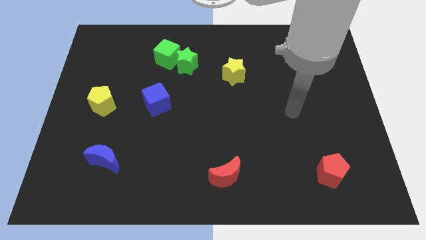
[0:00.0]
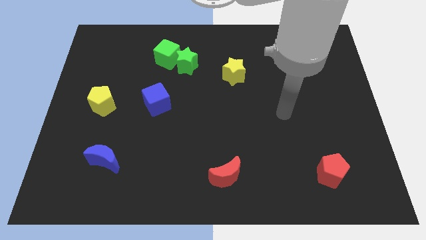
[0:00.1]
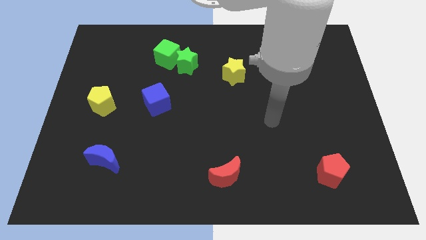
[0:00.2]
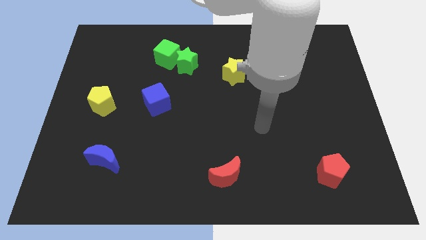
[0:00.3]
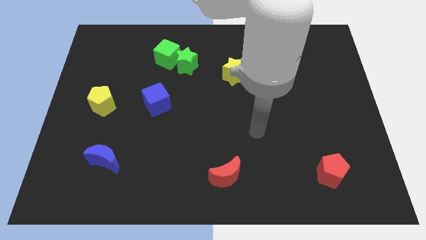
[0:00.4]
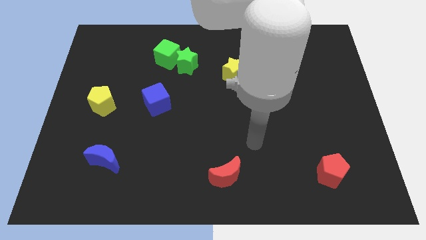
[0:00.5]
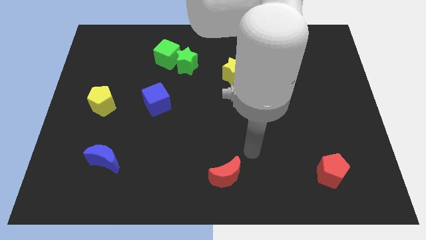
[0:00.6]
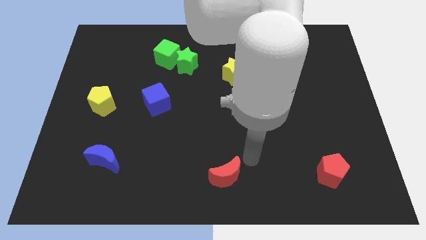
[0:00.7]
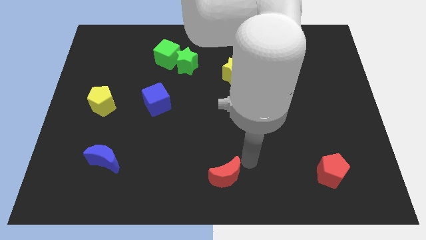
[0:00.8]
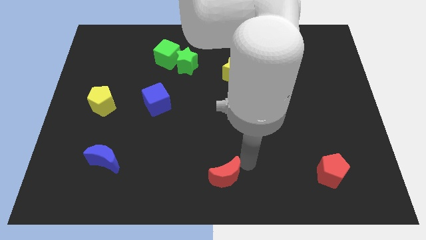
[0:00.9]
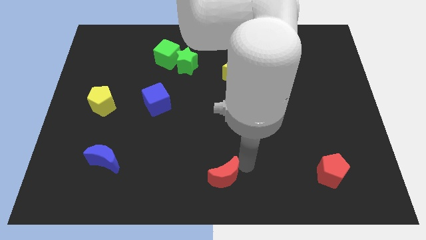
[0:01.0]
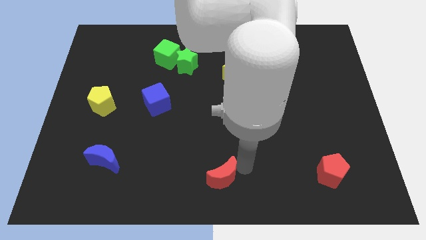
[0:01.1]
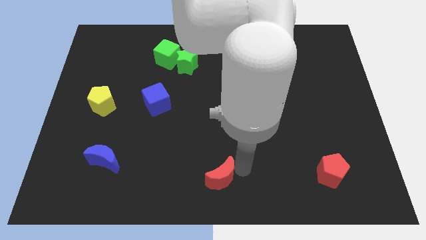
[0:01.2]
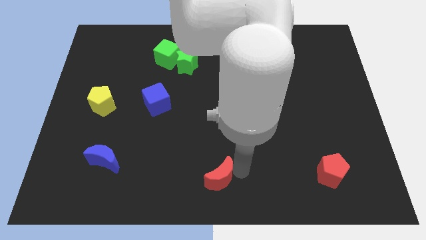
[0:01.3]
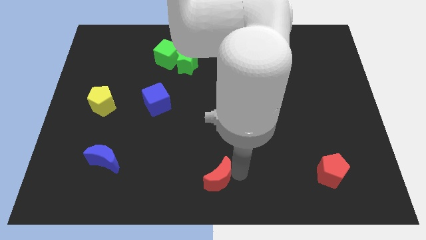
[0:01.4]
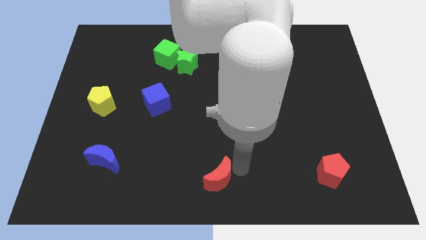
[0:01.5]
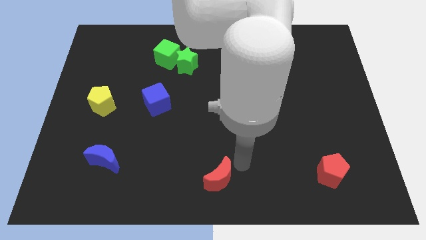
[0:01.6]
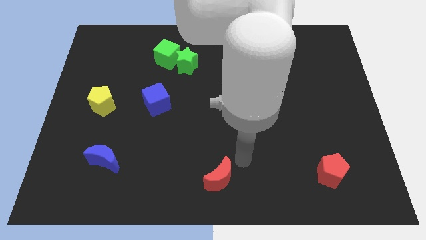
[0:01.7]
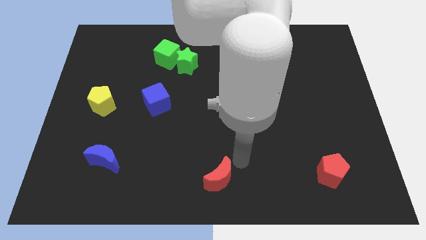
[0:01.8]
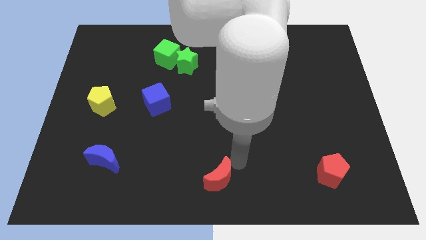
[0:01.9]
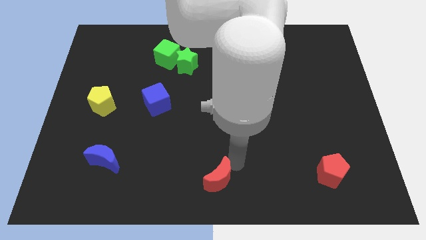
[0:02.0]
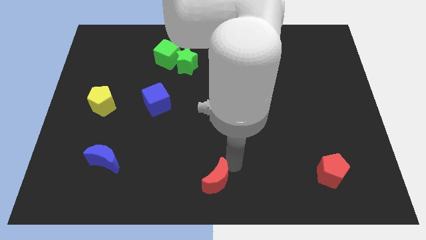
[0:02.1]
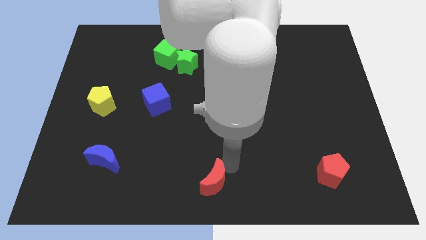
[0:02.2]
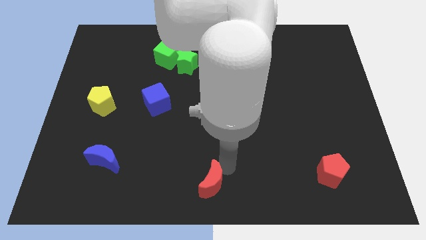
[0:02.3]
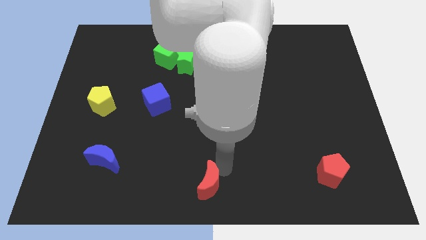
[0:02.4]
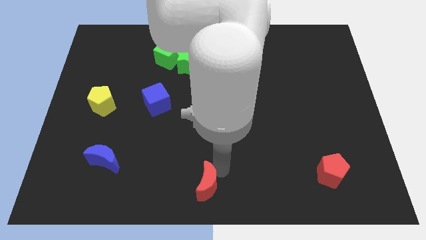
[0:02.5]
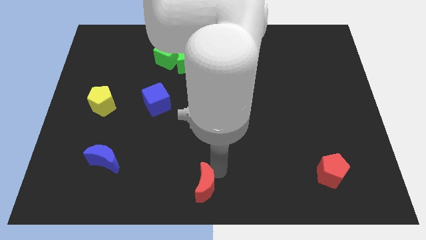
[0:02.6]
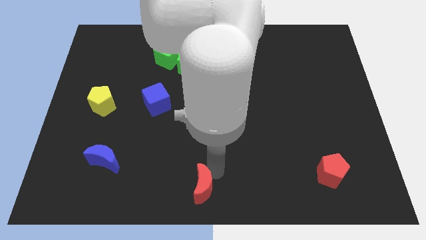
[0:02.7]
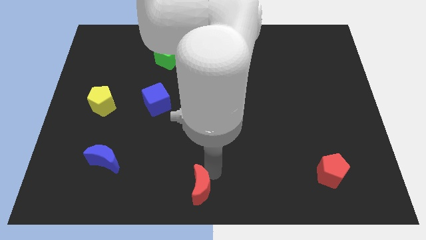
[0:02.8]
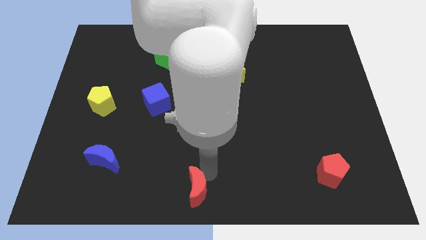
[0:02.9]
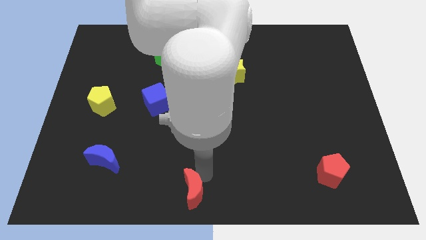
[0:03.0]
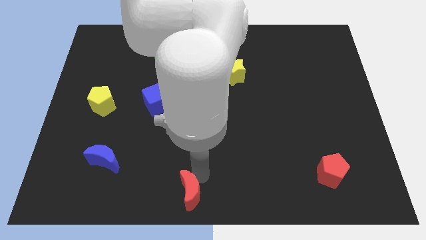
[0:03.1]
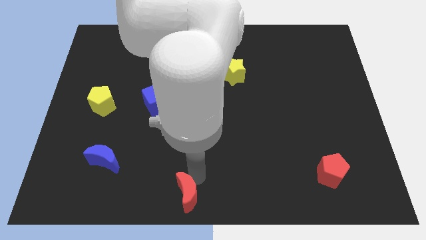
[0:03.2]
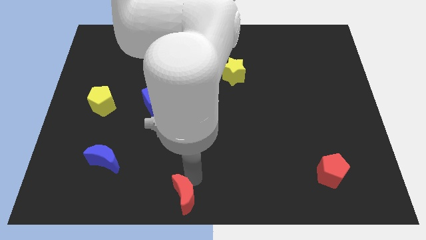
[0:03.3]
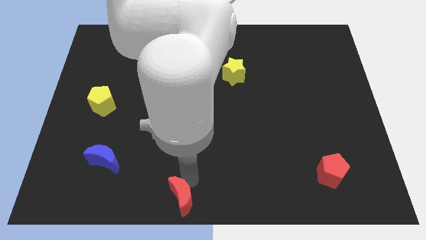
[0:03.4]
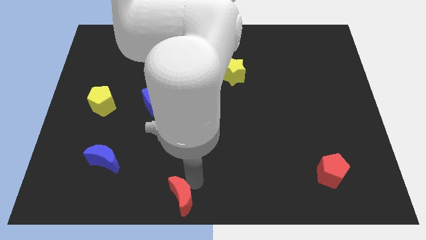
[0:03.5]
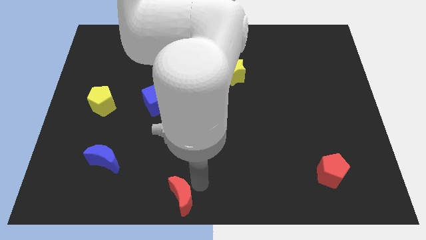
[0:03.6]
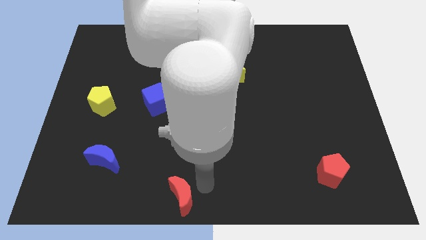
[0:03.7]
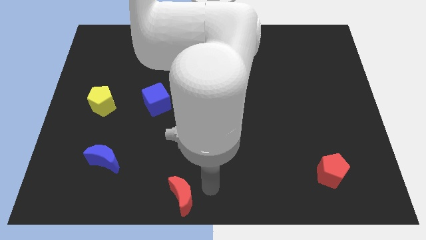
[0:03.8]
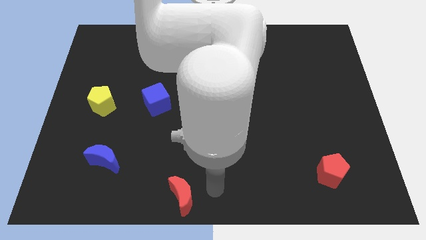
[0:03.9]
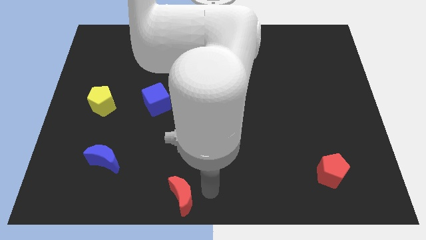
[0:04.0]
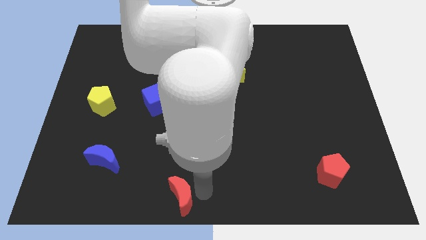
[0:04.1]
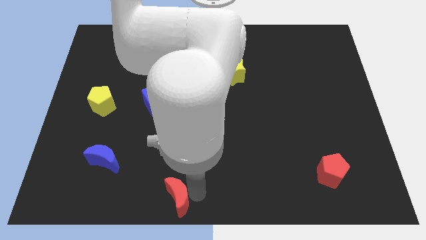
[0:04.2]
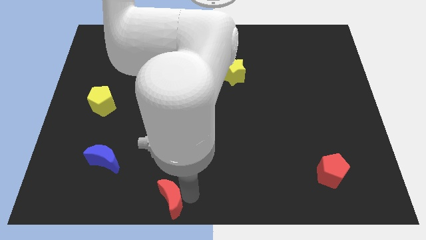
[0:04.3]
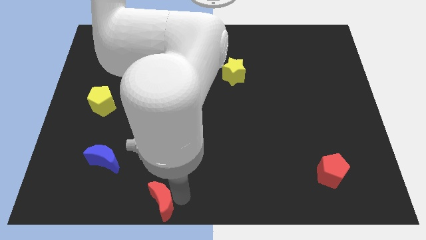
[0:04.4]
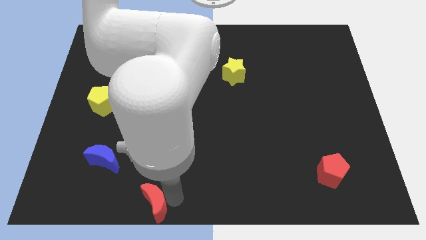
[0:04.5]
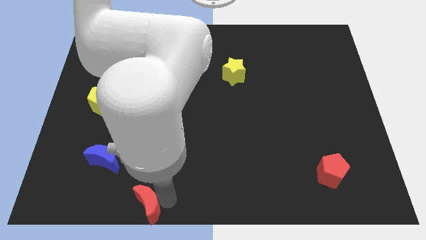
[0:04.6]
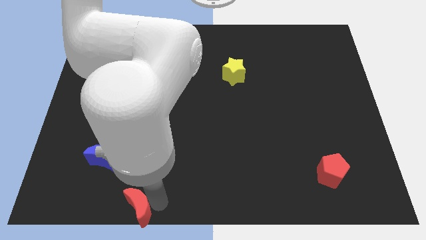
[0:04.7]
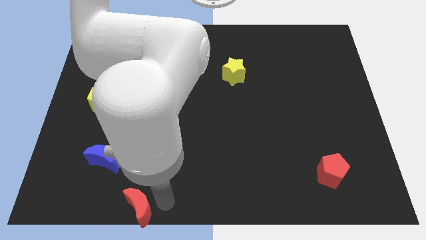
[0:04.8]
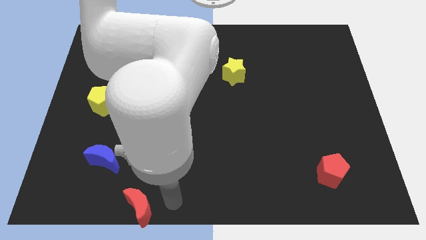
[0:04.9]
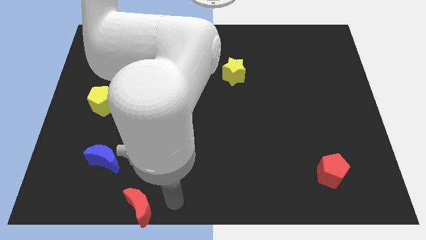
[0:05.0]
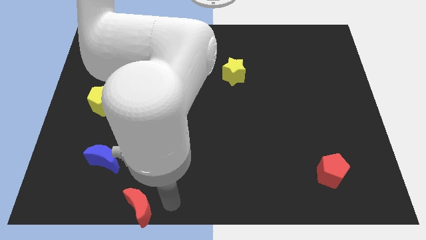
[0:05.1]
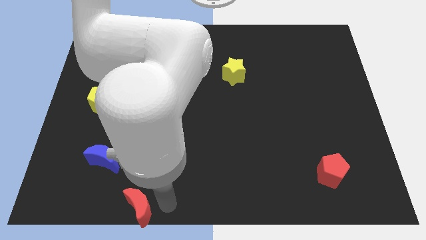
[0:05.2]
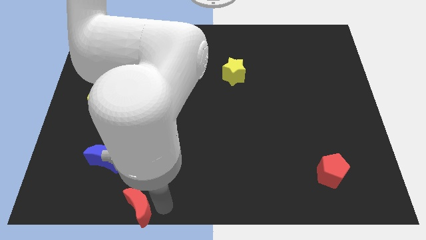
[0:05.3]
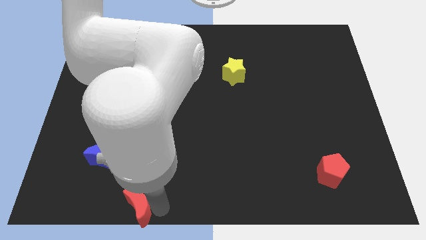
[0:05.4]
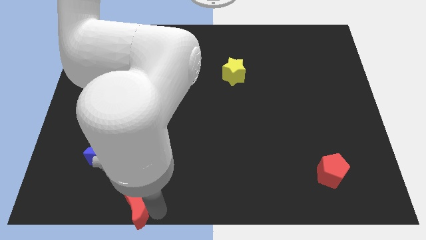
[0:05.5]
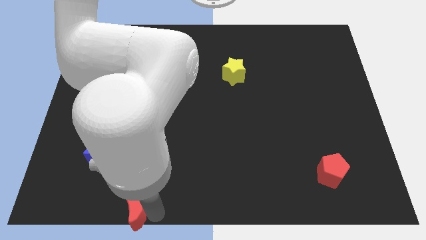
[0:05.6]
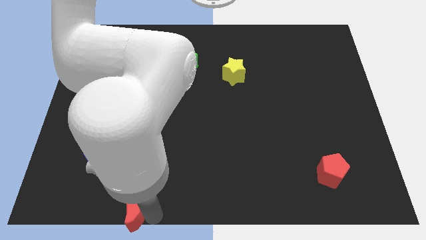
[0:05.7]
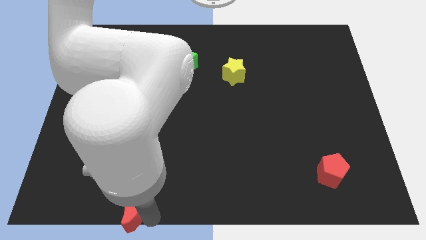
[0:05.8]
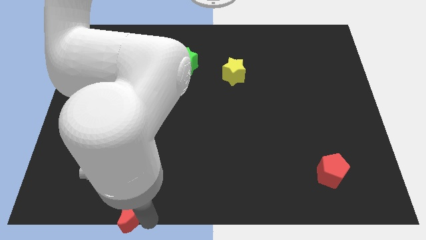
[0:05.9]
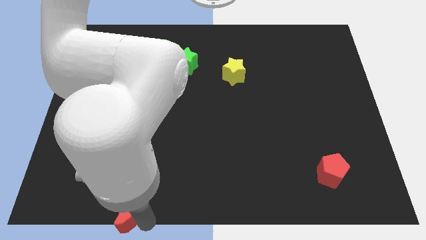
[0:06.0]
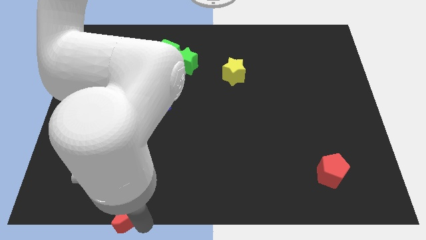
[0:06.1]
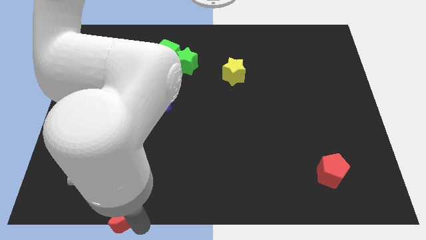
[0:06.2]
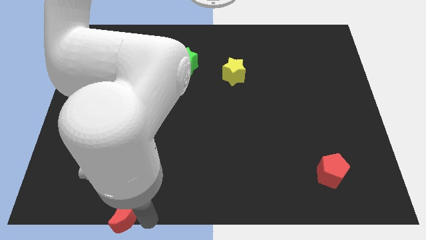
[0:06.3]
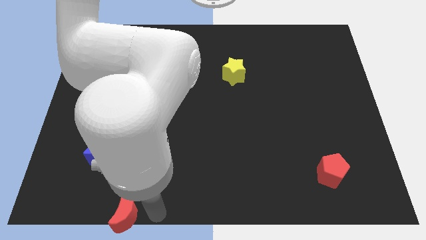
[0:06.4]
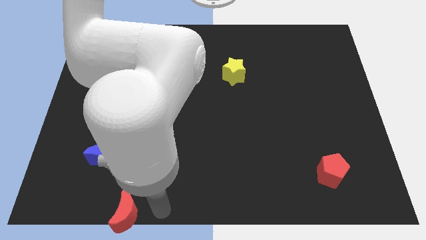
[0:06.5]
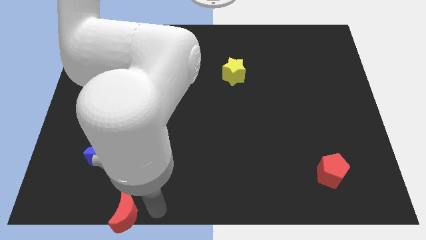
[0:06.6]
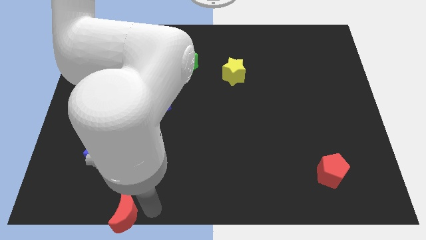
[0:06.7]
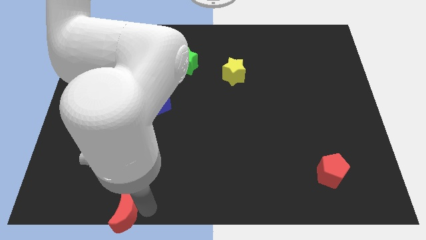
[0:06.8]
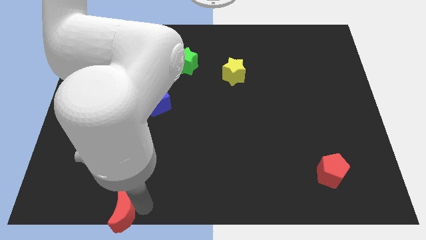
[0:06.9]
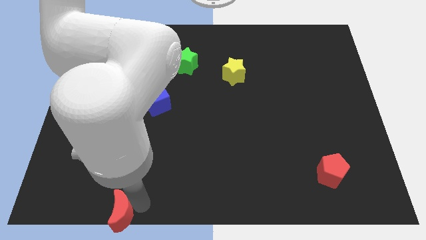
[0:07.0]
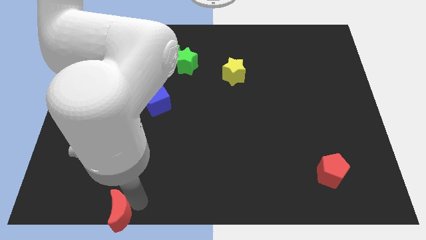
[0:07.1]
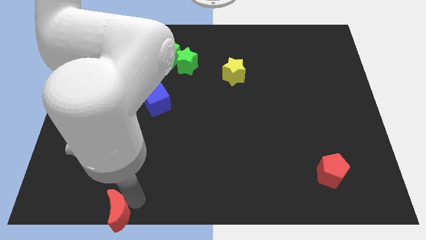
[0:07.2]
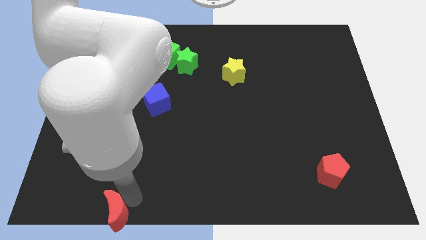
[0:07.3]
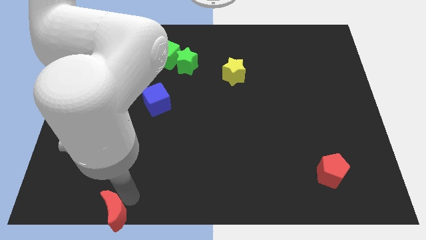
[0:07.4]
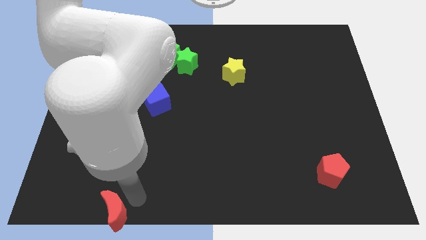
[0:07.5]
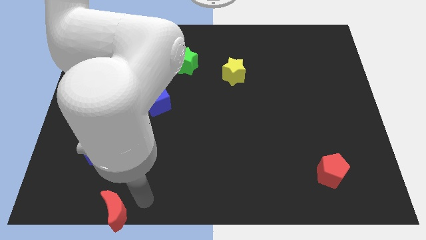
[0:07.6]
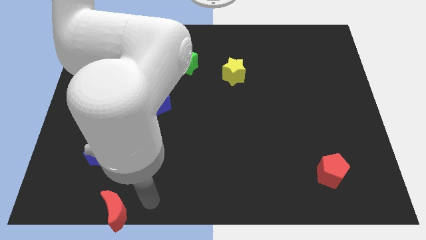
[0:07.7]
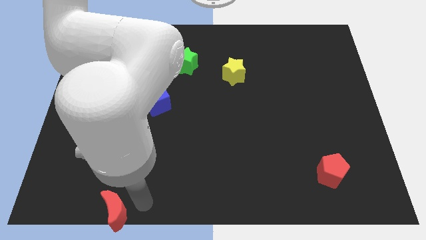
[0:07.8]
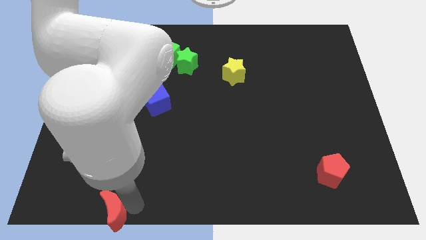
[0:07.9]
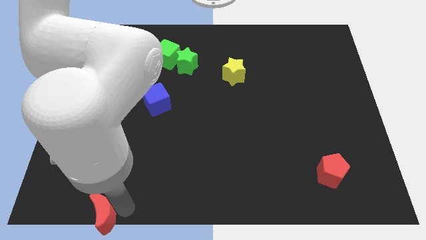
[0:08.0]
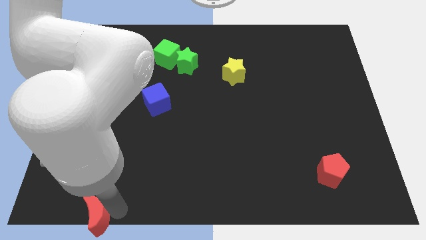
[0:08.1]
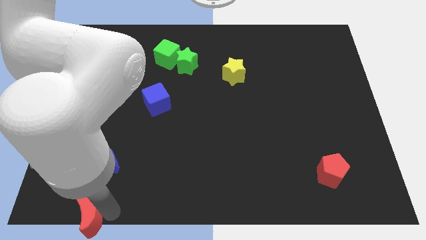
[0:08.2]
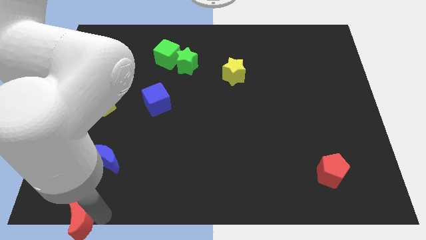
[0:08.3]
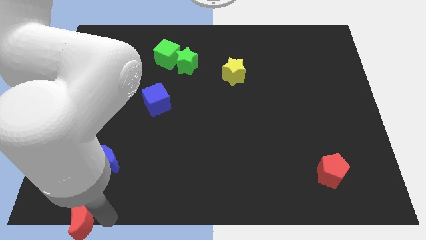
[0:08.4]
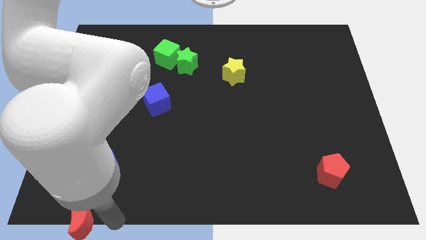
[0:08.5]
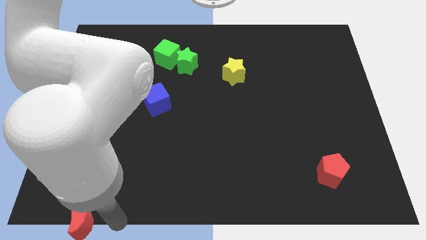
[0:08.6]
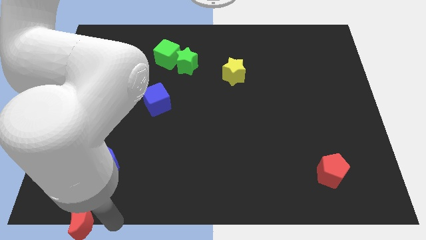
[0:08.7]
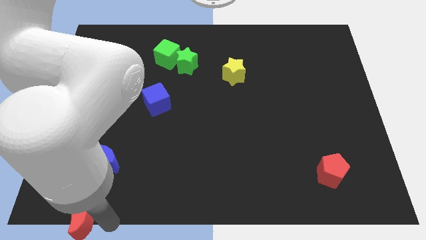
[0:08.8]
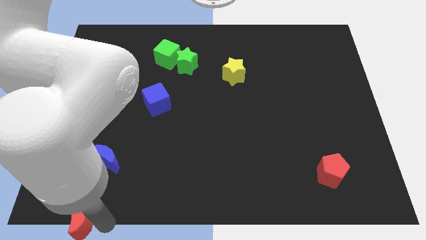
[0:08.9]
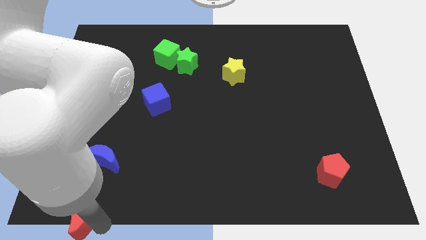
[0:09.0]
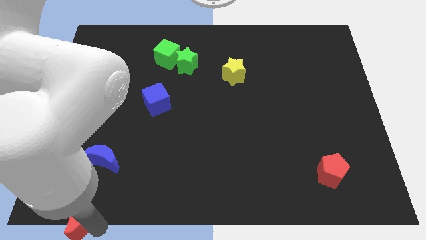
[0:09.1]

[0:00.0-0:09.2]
slide the red moon to the lower left corner
